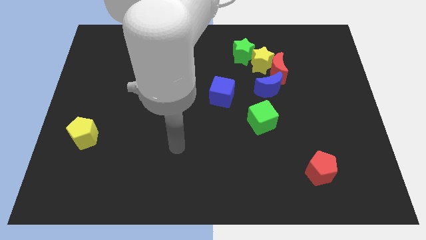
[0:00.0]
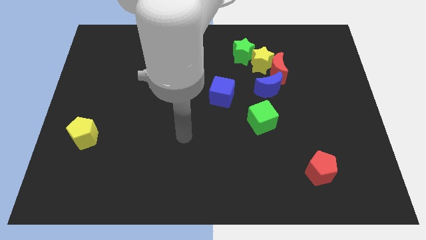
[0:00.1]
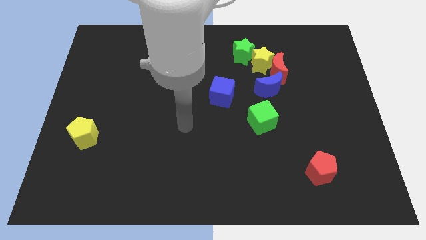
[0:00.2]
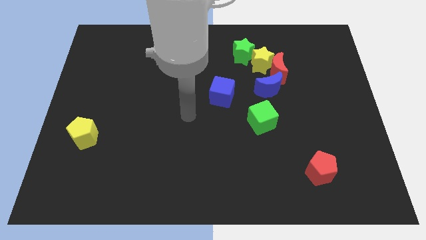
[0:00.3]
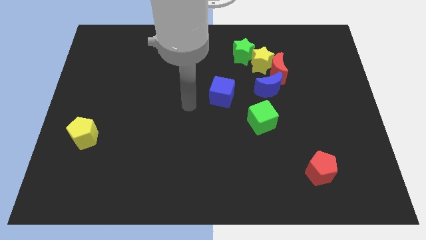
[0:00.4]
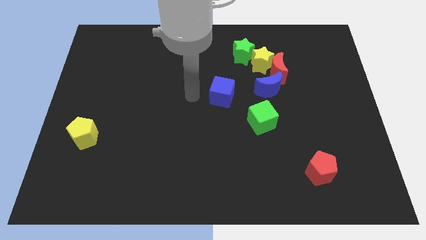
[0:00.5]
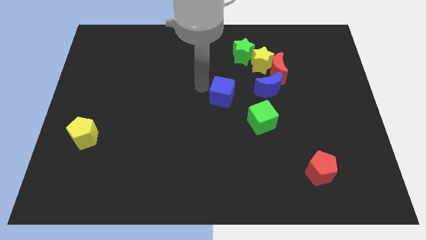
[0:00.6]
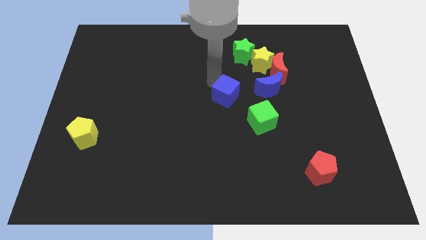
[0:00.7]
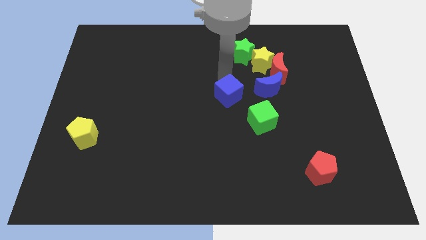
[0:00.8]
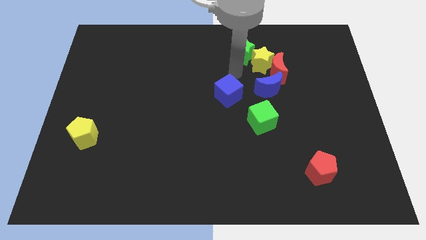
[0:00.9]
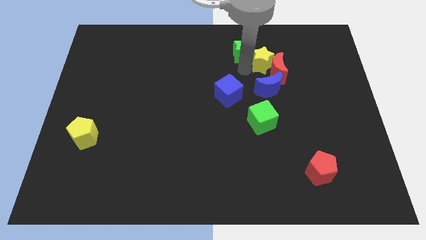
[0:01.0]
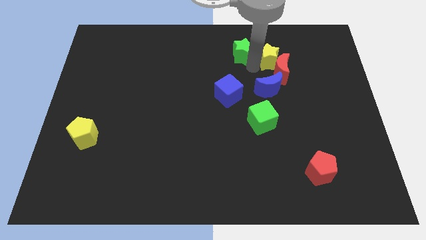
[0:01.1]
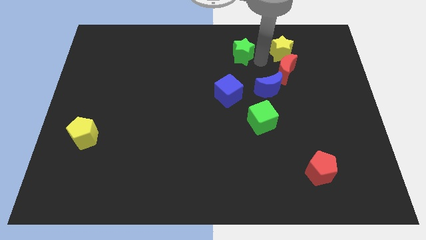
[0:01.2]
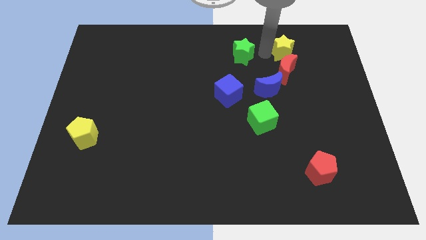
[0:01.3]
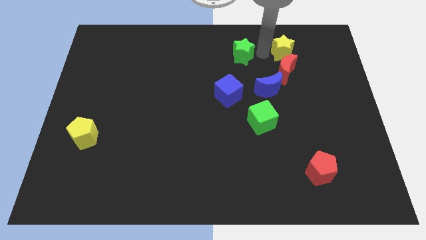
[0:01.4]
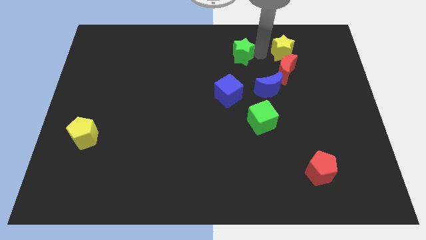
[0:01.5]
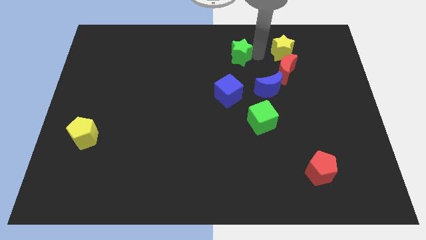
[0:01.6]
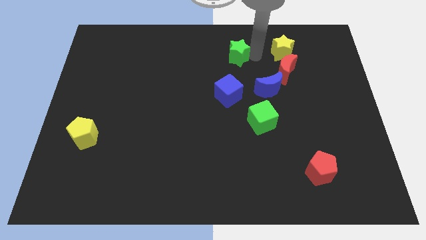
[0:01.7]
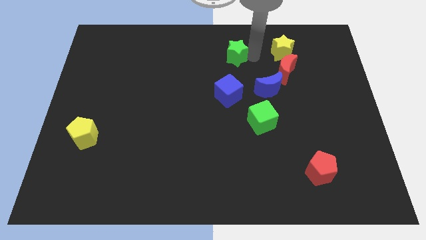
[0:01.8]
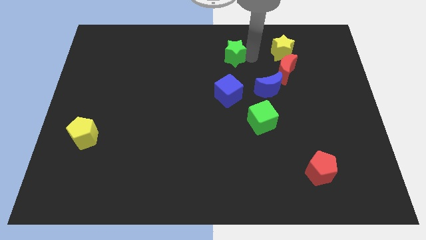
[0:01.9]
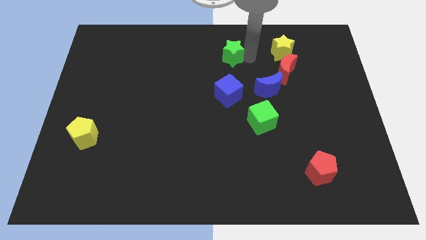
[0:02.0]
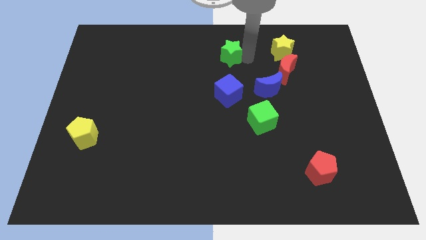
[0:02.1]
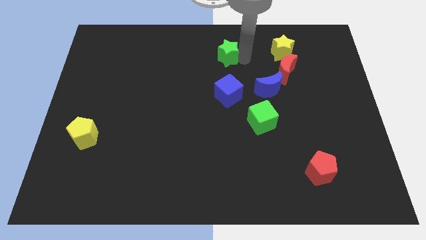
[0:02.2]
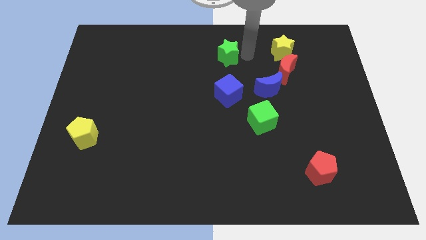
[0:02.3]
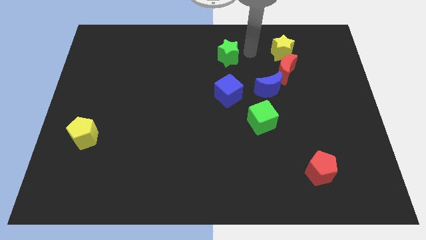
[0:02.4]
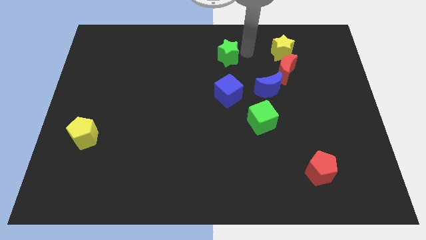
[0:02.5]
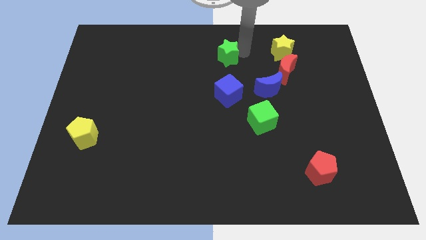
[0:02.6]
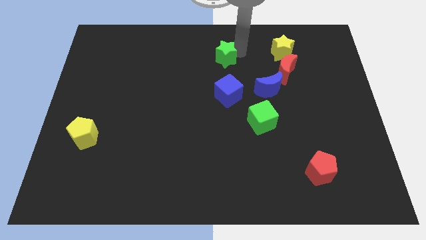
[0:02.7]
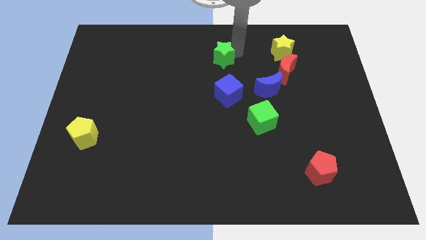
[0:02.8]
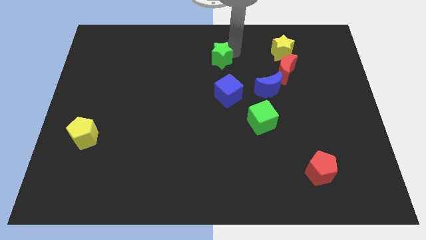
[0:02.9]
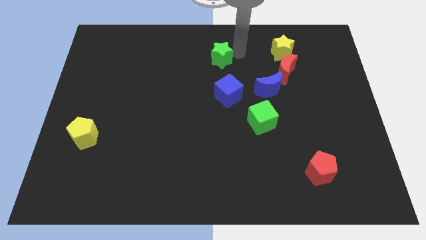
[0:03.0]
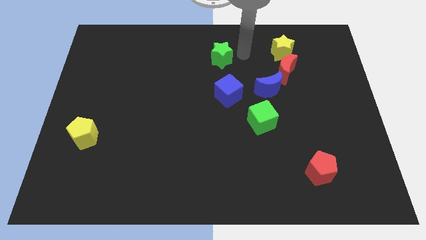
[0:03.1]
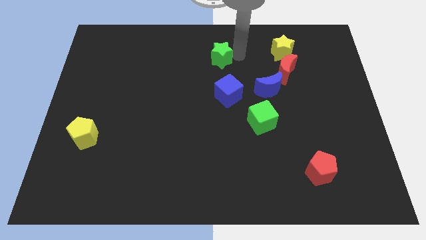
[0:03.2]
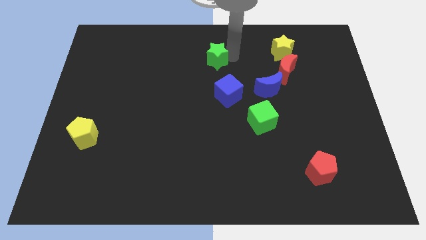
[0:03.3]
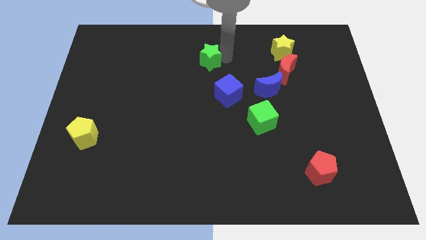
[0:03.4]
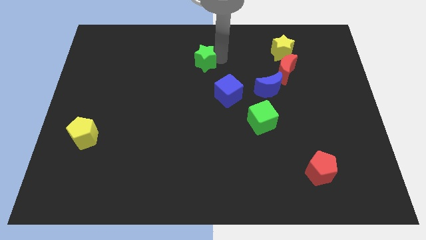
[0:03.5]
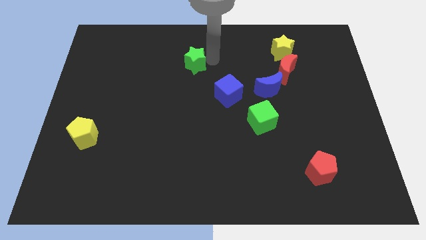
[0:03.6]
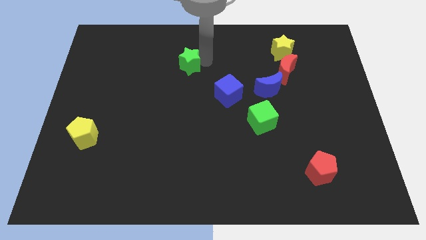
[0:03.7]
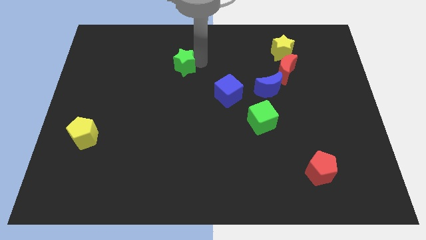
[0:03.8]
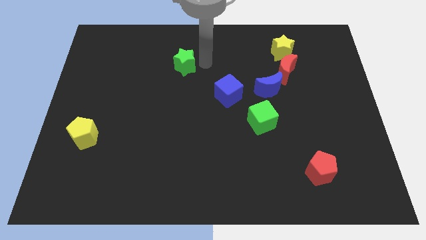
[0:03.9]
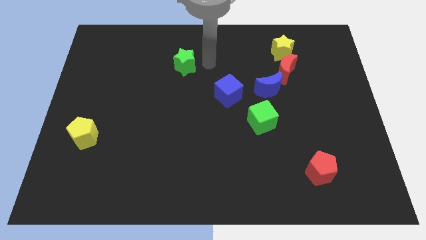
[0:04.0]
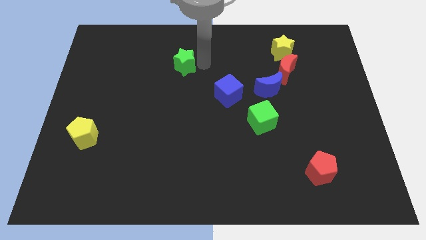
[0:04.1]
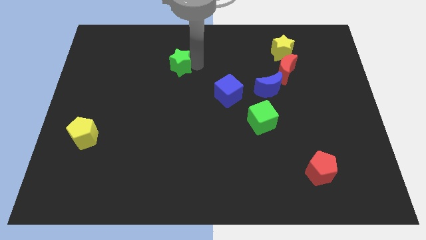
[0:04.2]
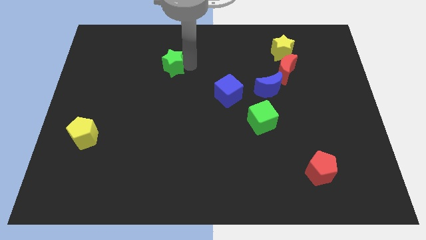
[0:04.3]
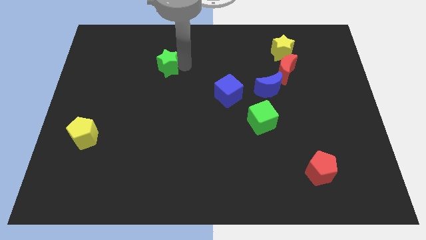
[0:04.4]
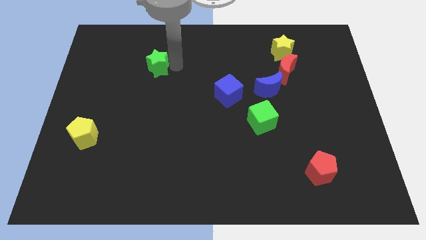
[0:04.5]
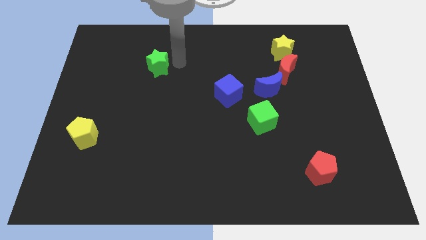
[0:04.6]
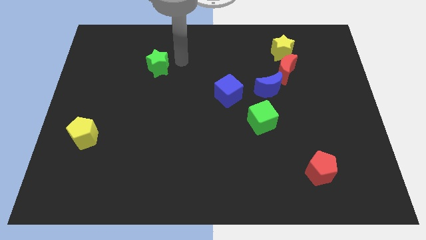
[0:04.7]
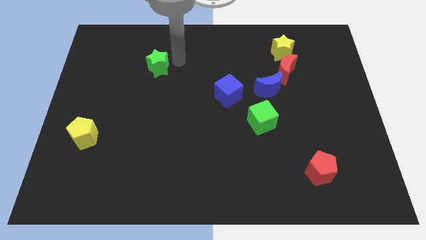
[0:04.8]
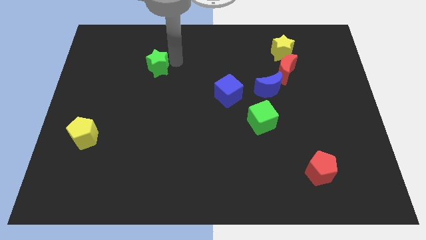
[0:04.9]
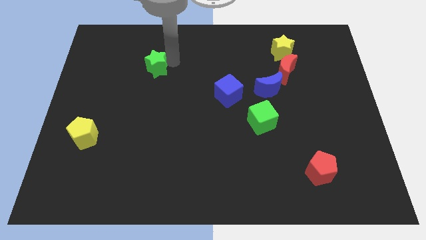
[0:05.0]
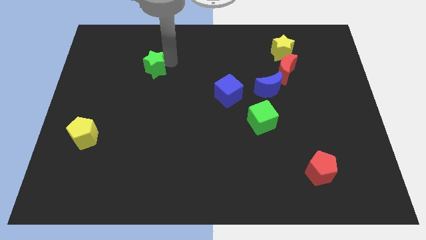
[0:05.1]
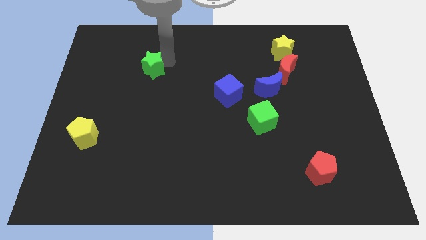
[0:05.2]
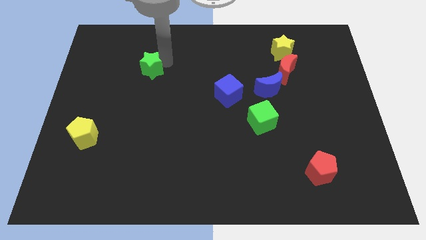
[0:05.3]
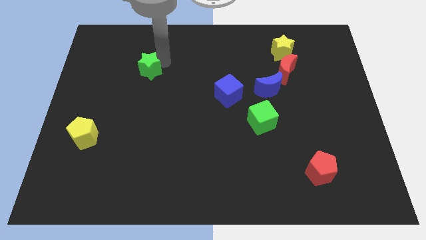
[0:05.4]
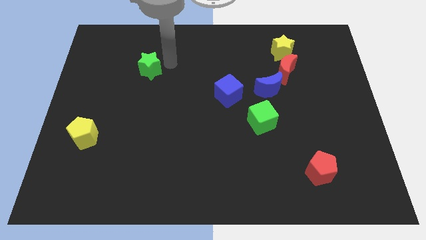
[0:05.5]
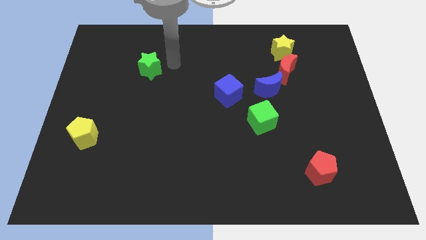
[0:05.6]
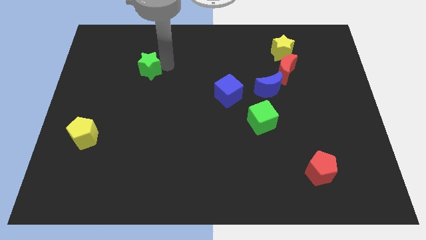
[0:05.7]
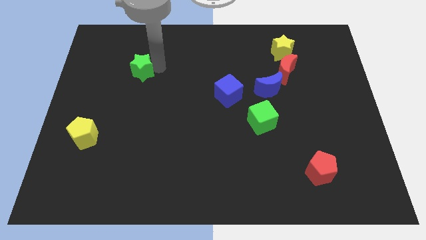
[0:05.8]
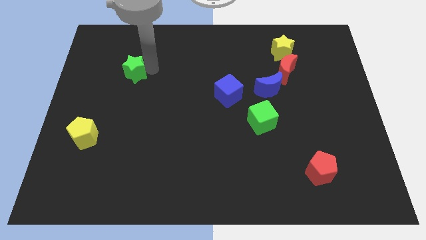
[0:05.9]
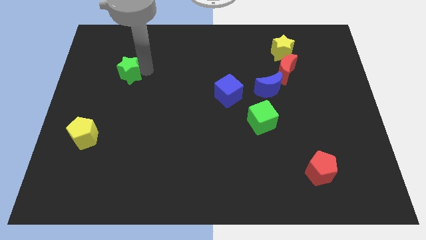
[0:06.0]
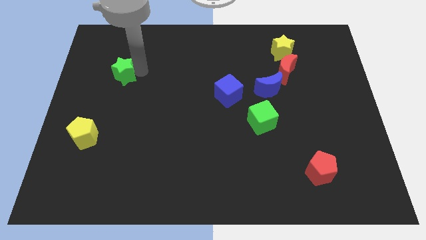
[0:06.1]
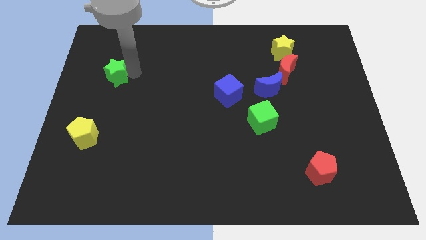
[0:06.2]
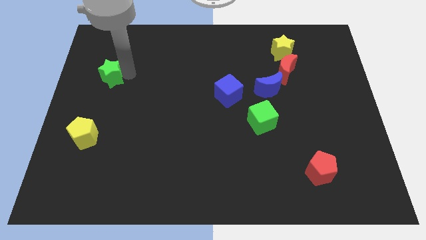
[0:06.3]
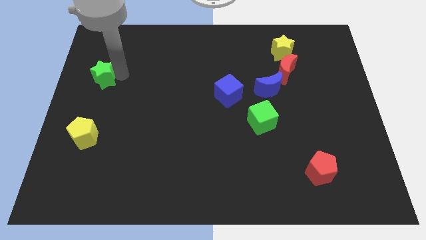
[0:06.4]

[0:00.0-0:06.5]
slide the green star to the left side of the board
